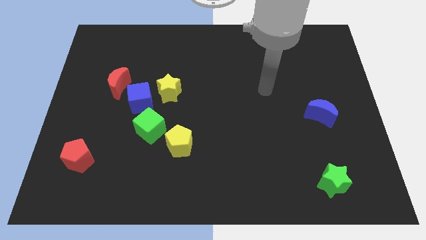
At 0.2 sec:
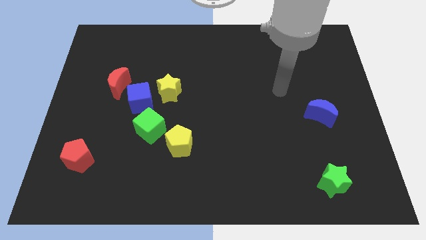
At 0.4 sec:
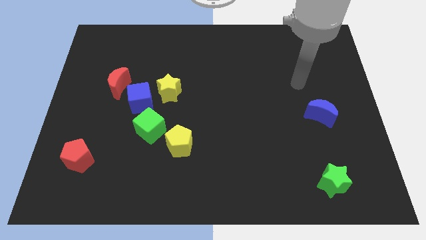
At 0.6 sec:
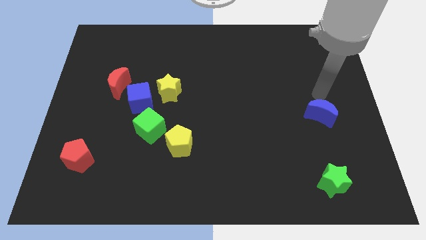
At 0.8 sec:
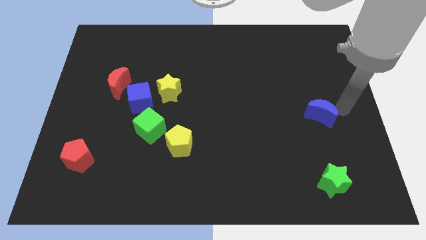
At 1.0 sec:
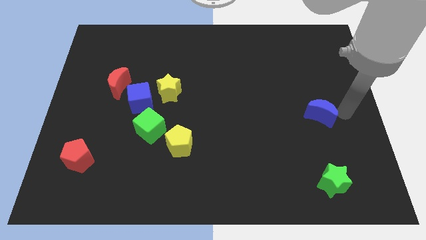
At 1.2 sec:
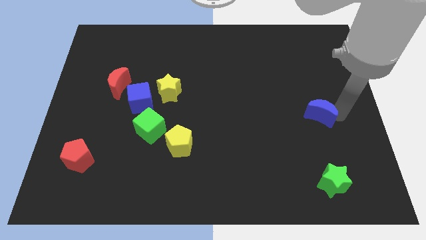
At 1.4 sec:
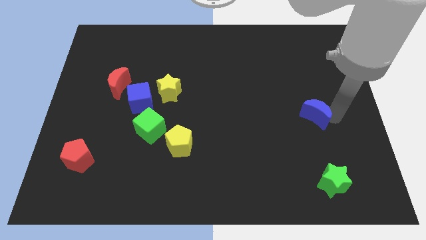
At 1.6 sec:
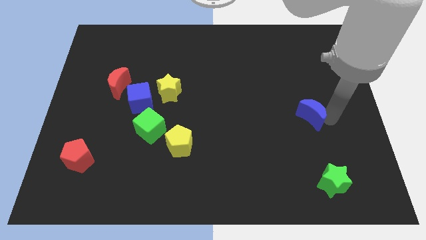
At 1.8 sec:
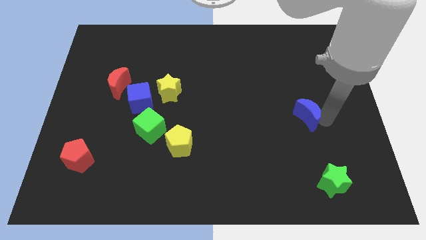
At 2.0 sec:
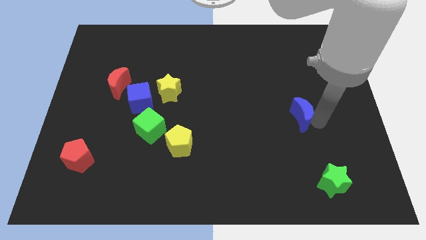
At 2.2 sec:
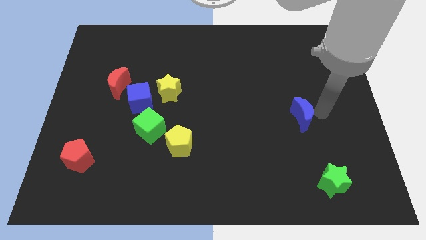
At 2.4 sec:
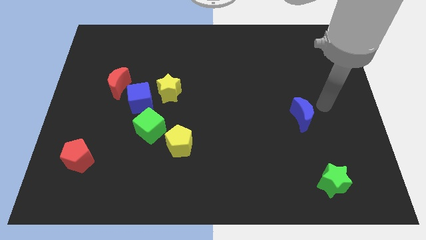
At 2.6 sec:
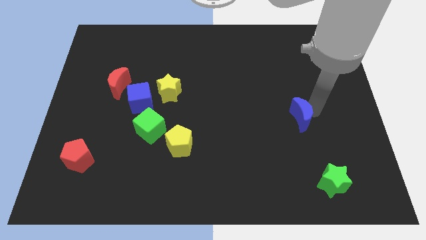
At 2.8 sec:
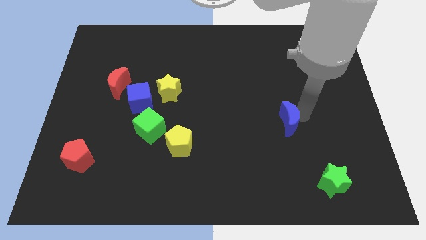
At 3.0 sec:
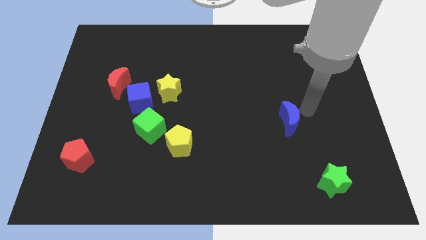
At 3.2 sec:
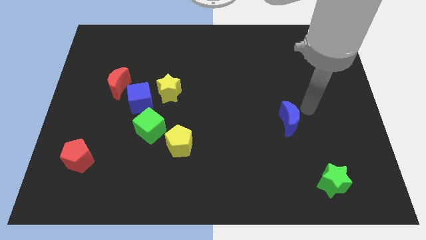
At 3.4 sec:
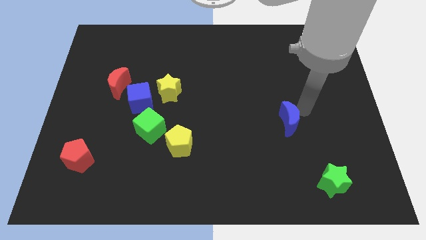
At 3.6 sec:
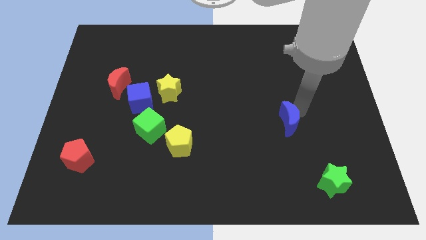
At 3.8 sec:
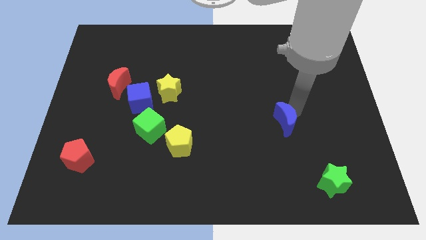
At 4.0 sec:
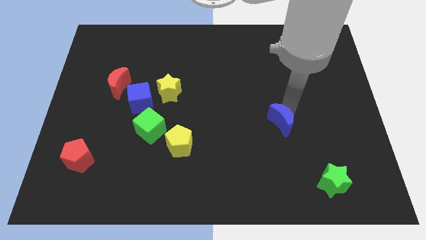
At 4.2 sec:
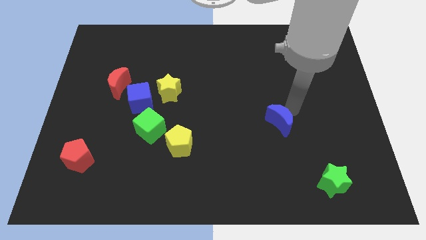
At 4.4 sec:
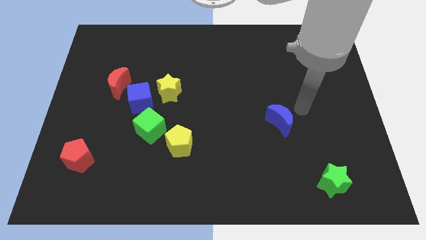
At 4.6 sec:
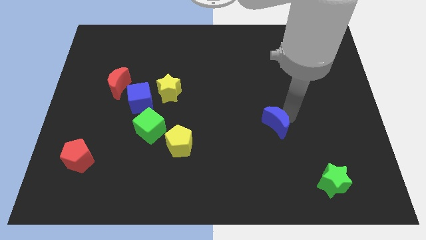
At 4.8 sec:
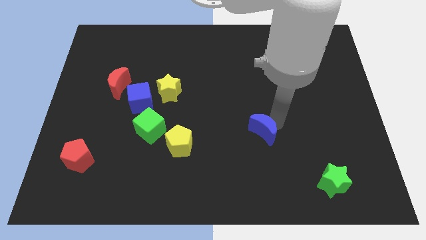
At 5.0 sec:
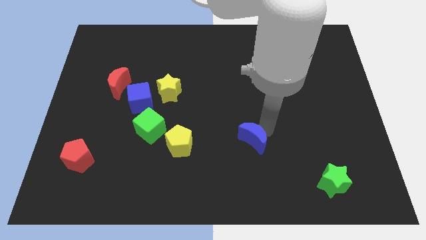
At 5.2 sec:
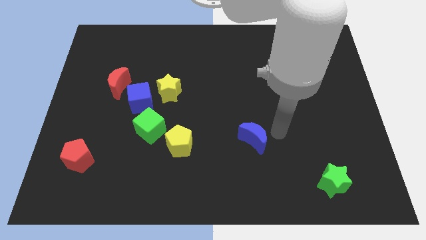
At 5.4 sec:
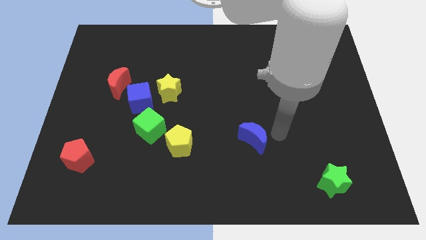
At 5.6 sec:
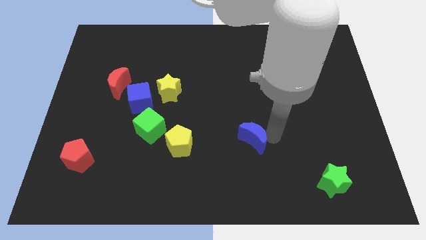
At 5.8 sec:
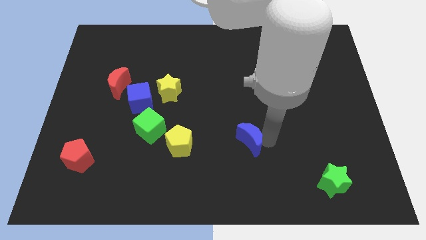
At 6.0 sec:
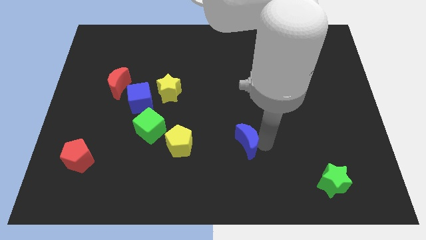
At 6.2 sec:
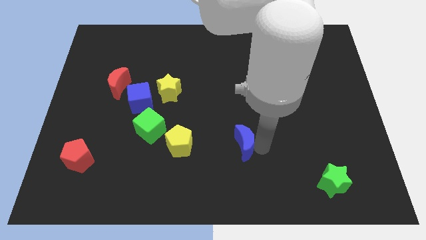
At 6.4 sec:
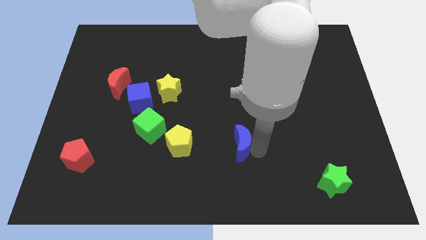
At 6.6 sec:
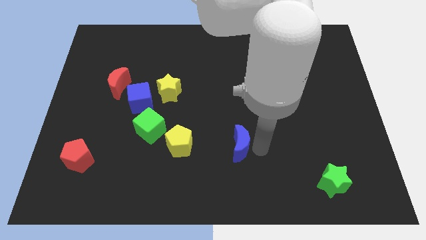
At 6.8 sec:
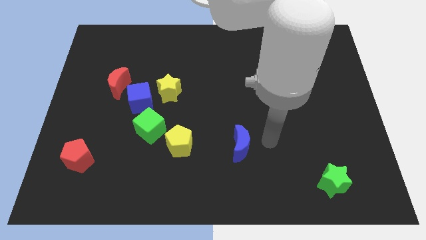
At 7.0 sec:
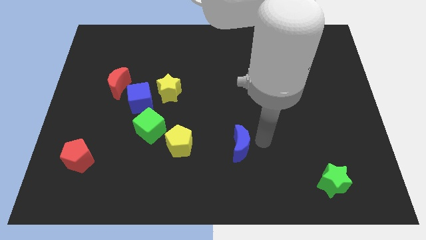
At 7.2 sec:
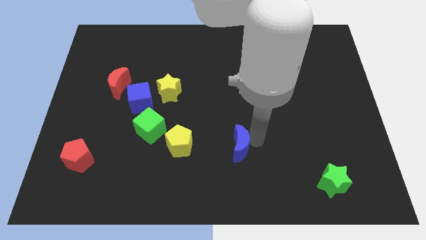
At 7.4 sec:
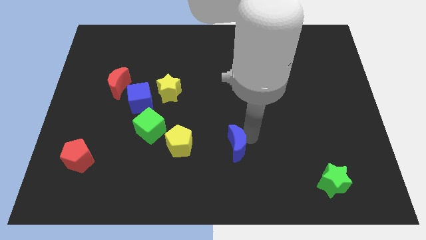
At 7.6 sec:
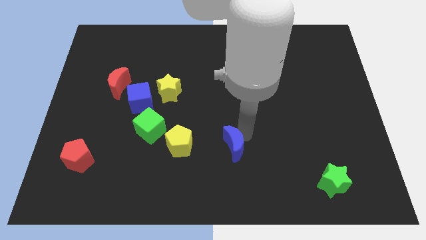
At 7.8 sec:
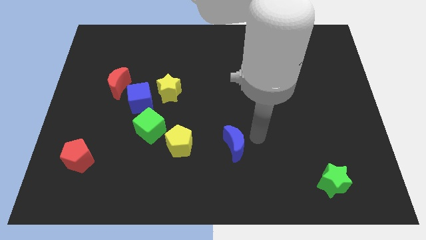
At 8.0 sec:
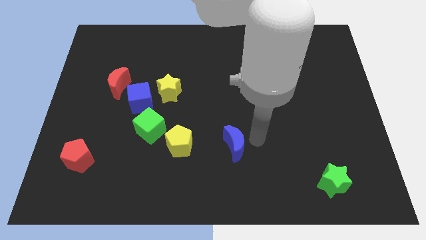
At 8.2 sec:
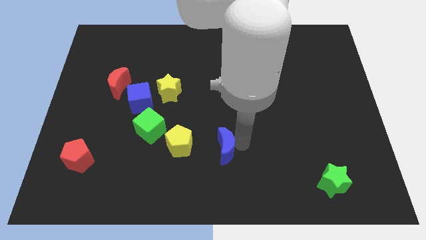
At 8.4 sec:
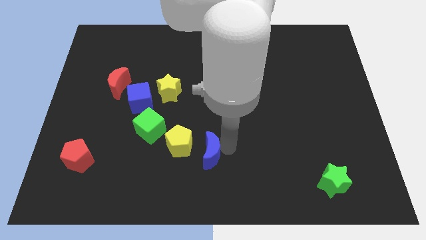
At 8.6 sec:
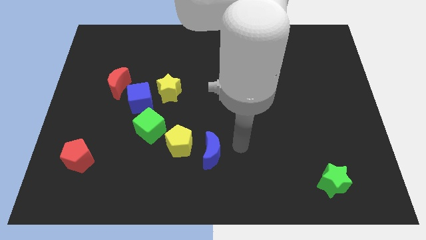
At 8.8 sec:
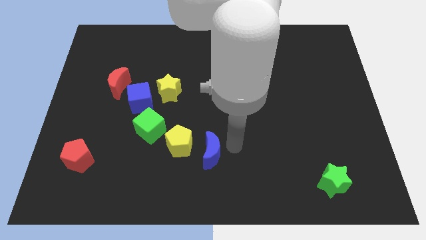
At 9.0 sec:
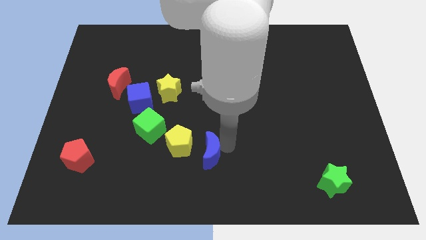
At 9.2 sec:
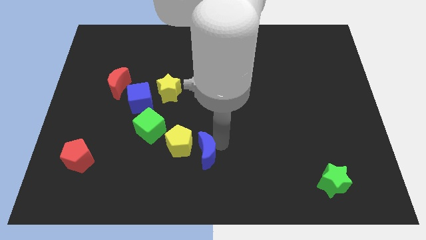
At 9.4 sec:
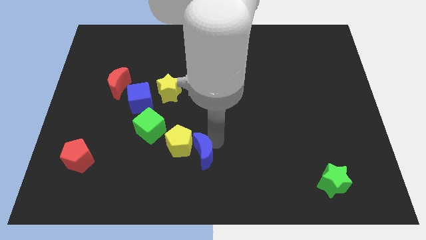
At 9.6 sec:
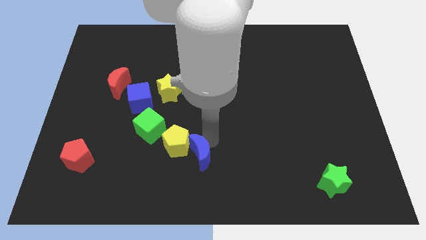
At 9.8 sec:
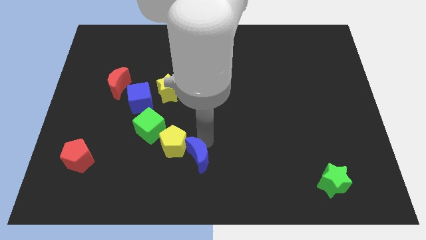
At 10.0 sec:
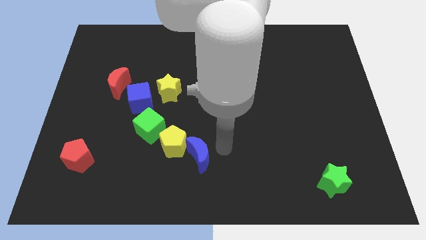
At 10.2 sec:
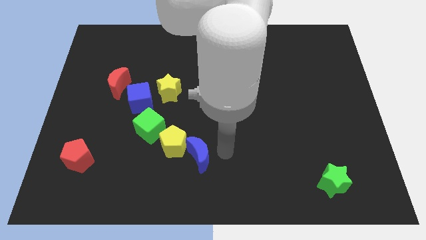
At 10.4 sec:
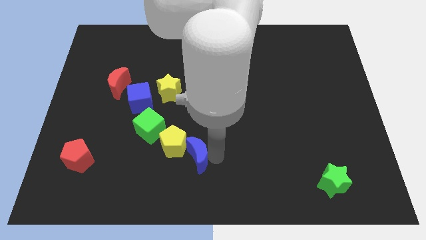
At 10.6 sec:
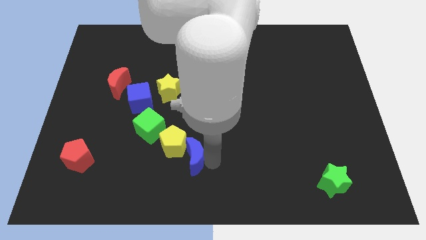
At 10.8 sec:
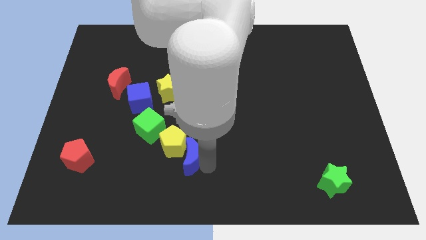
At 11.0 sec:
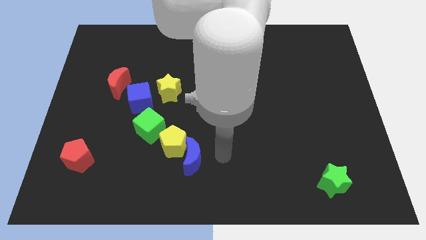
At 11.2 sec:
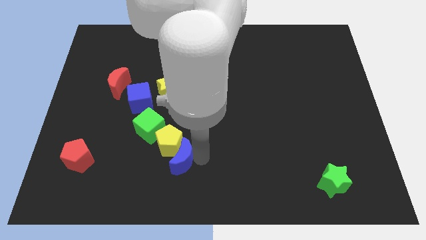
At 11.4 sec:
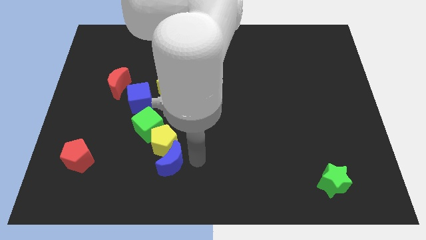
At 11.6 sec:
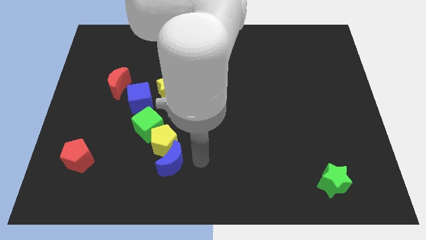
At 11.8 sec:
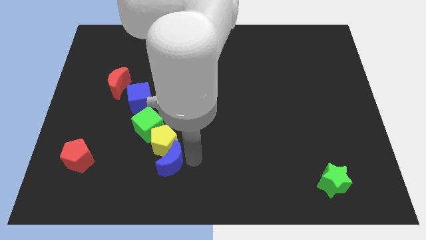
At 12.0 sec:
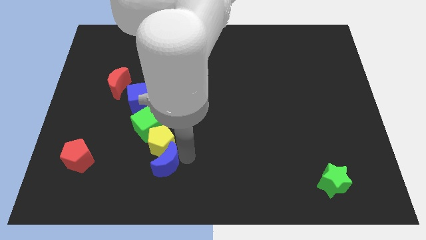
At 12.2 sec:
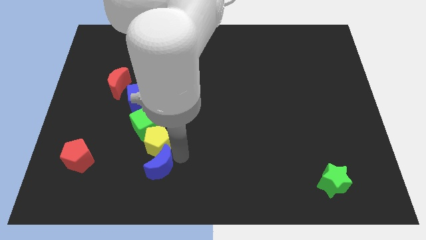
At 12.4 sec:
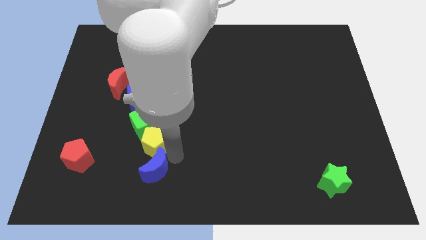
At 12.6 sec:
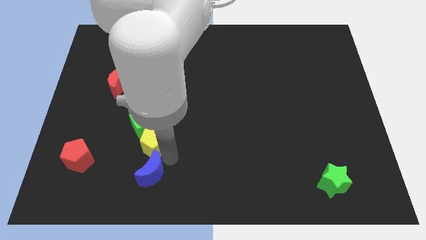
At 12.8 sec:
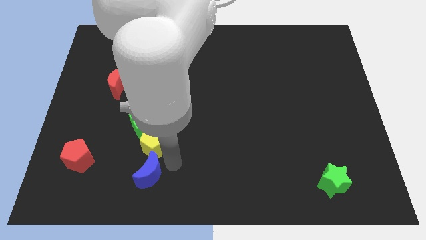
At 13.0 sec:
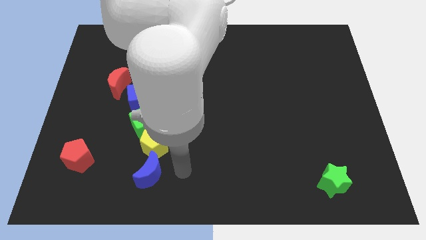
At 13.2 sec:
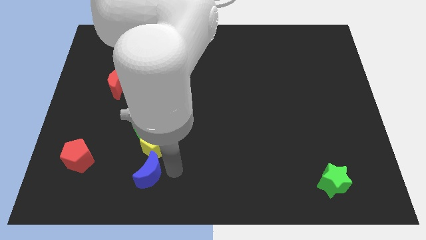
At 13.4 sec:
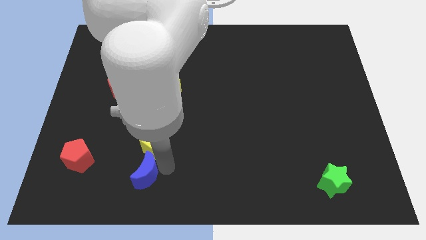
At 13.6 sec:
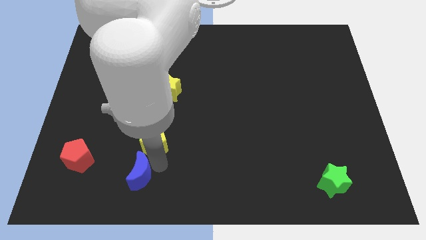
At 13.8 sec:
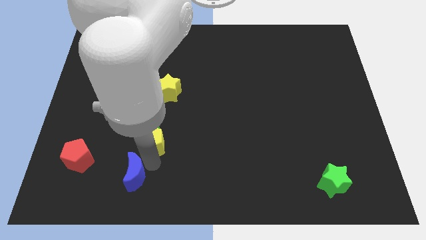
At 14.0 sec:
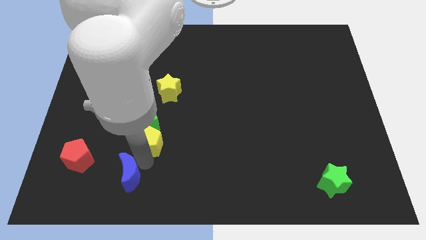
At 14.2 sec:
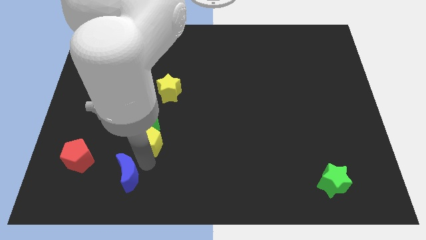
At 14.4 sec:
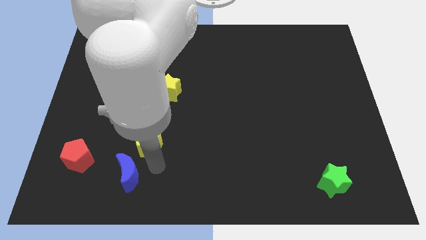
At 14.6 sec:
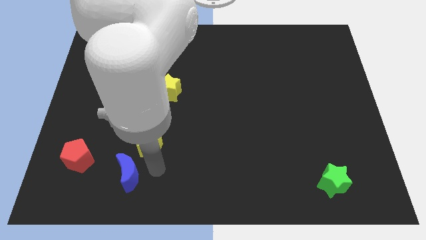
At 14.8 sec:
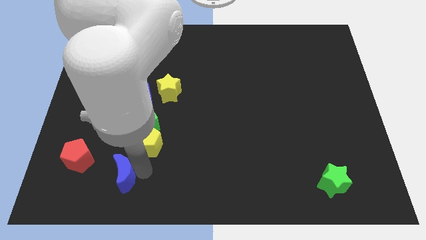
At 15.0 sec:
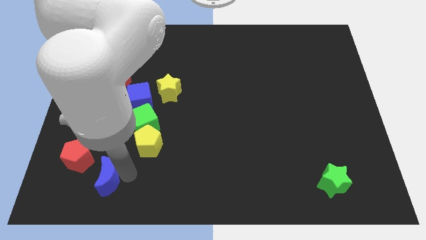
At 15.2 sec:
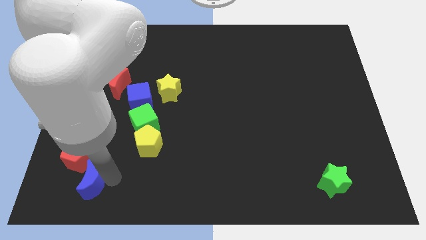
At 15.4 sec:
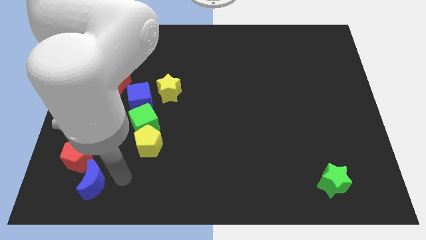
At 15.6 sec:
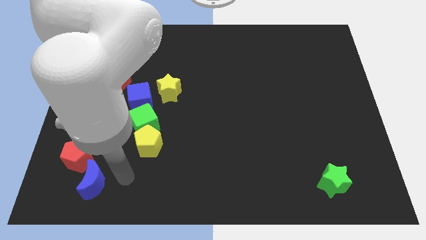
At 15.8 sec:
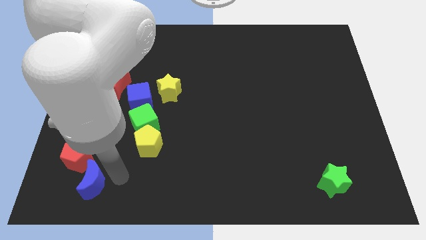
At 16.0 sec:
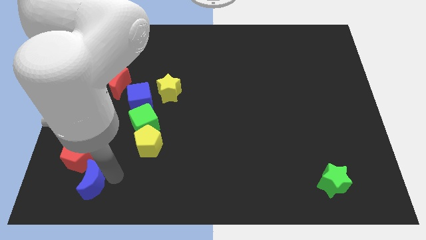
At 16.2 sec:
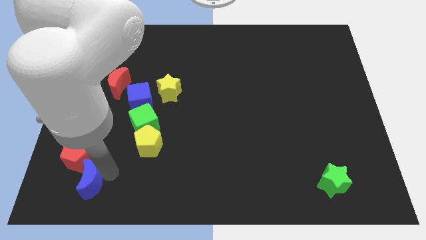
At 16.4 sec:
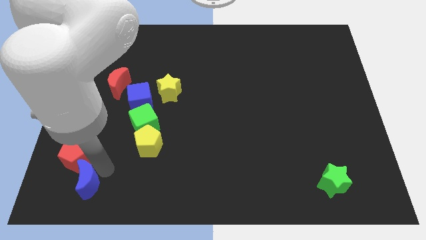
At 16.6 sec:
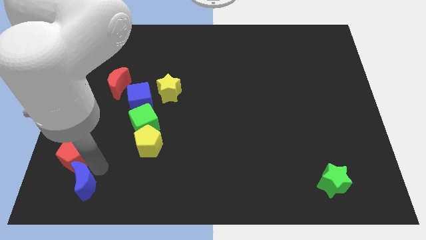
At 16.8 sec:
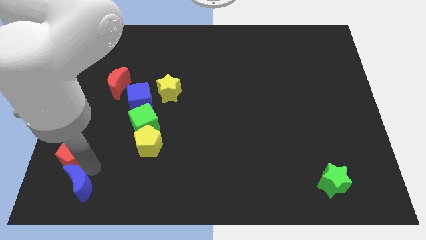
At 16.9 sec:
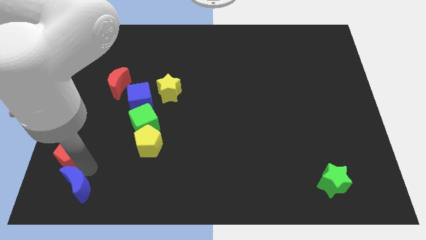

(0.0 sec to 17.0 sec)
push the blue moon to the bottom left of the board
